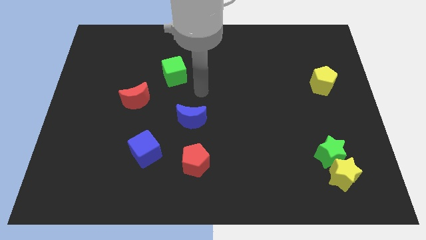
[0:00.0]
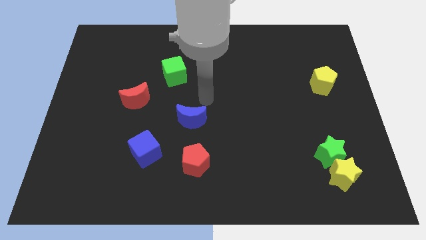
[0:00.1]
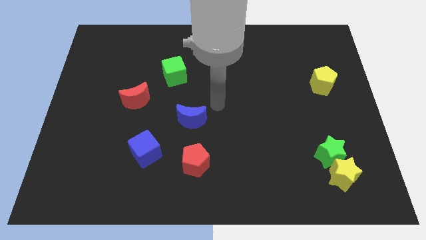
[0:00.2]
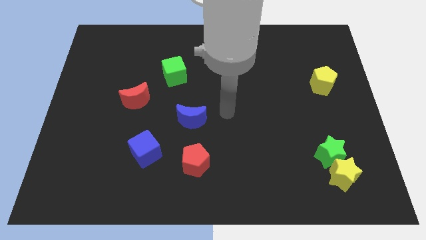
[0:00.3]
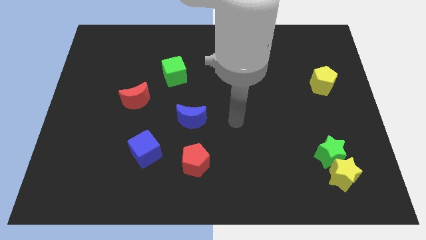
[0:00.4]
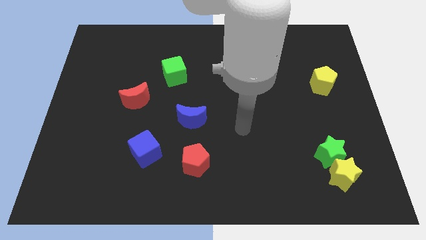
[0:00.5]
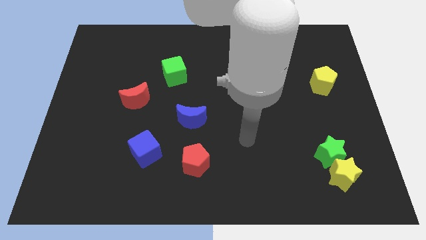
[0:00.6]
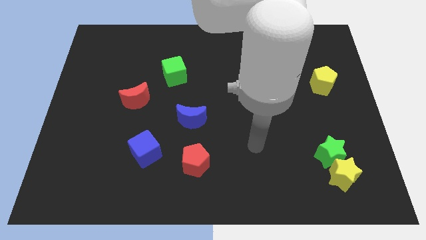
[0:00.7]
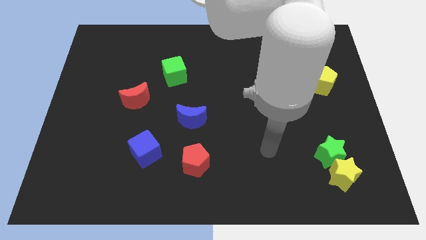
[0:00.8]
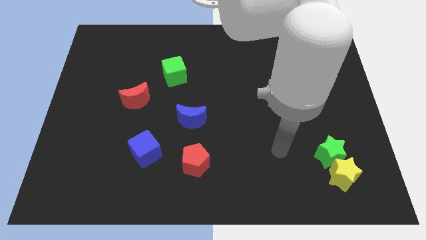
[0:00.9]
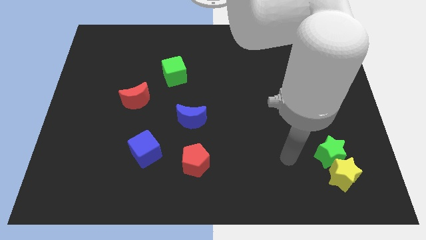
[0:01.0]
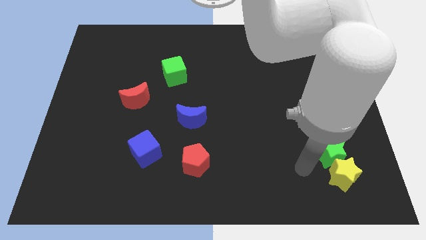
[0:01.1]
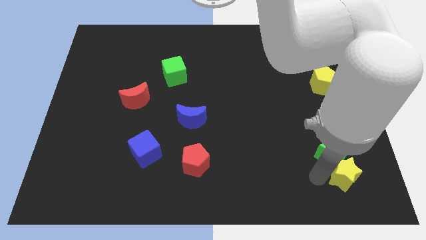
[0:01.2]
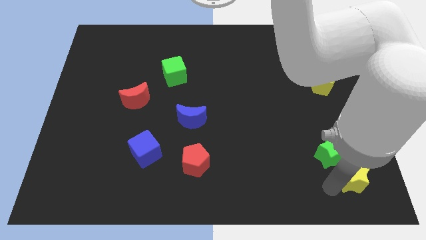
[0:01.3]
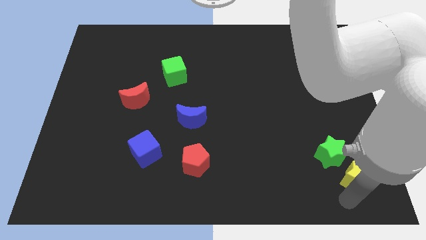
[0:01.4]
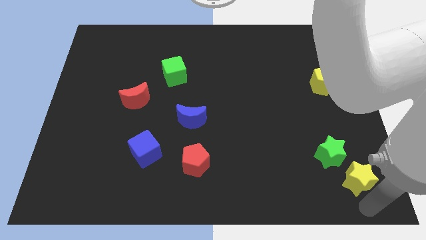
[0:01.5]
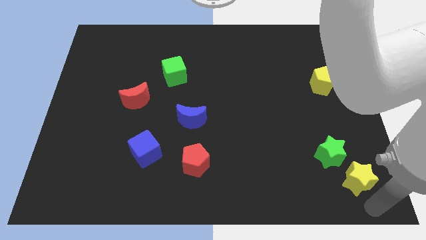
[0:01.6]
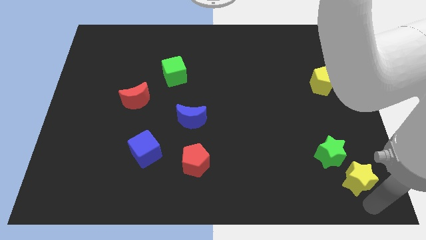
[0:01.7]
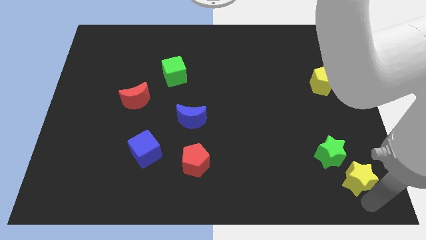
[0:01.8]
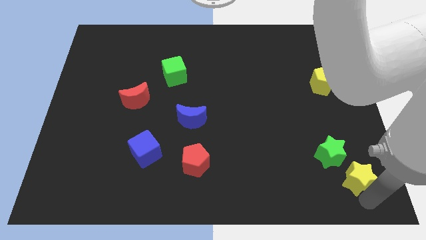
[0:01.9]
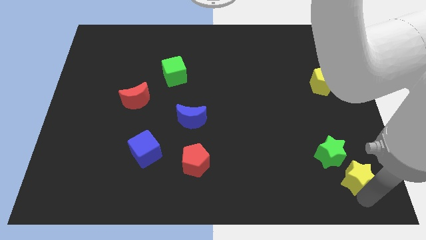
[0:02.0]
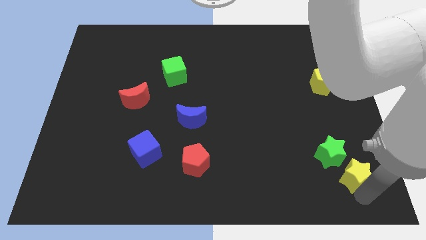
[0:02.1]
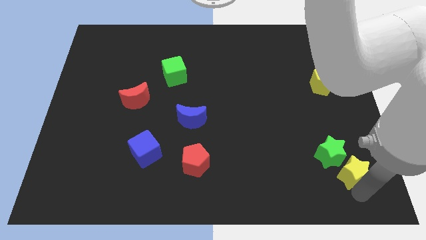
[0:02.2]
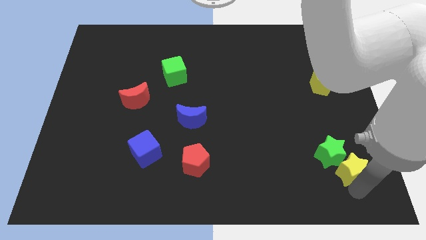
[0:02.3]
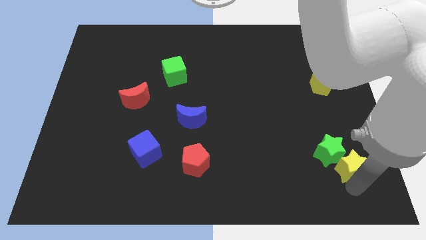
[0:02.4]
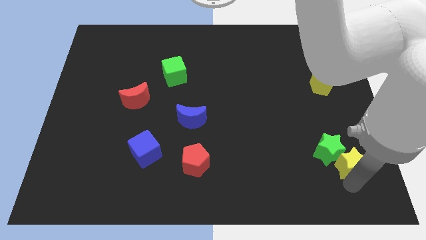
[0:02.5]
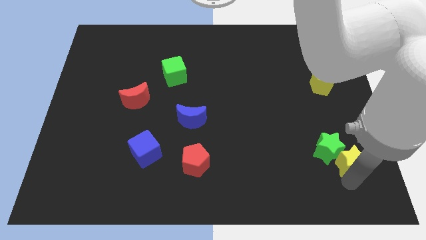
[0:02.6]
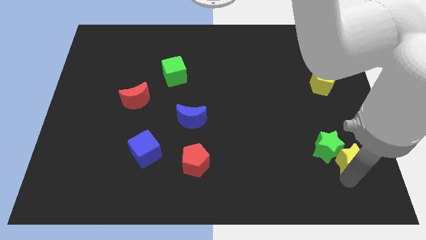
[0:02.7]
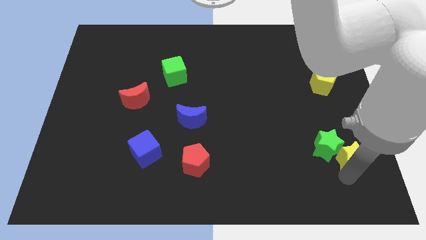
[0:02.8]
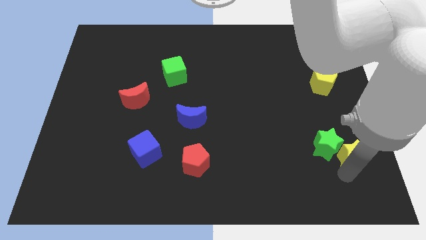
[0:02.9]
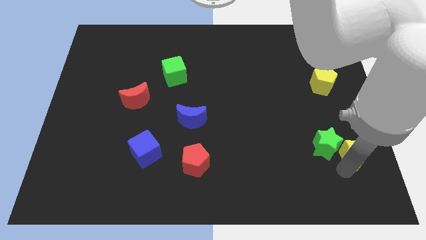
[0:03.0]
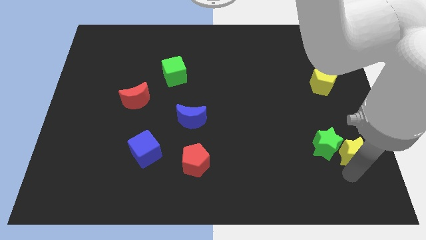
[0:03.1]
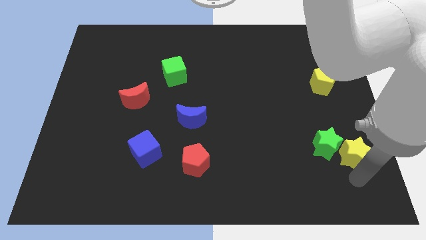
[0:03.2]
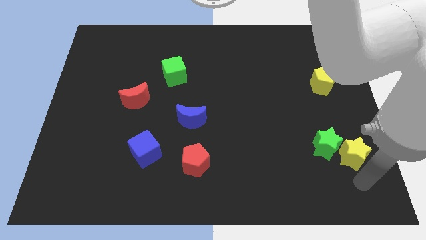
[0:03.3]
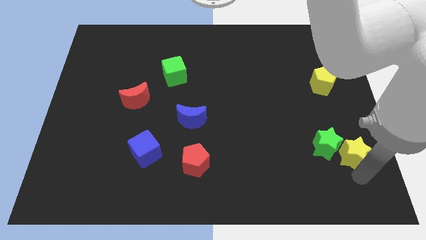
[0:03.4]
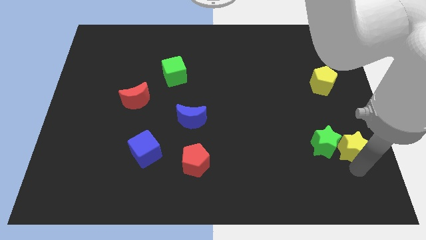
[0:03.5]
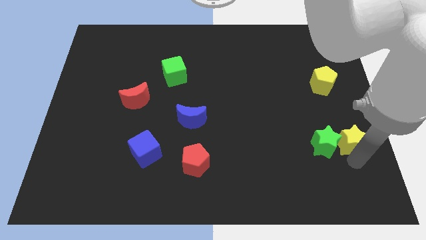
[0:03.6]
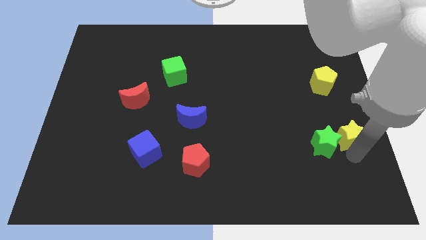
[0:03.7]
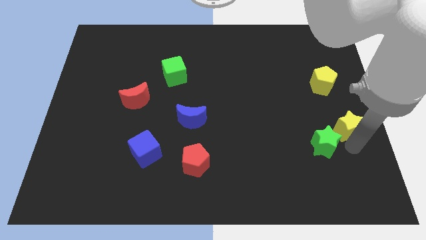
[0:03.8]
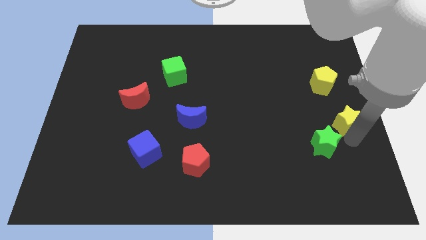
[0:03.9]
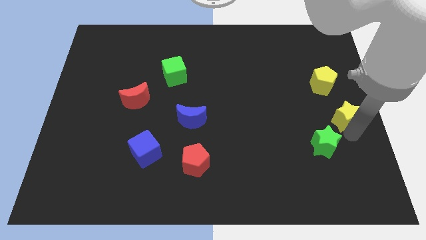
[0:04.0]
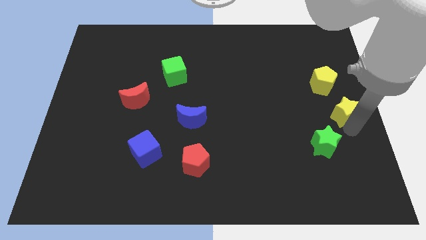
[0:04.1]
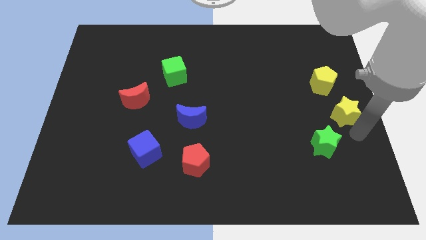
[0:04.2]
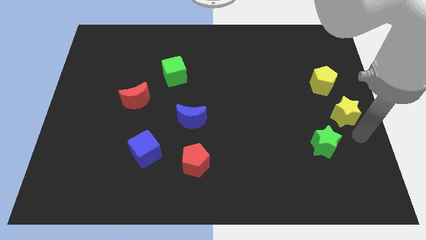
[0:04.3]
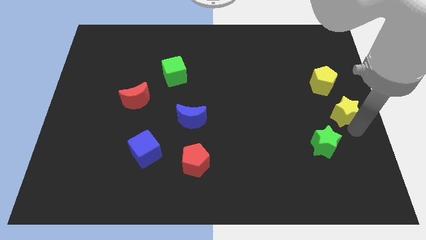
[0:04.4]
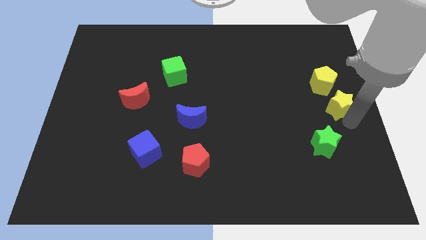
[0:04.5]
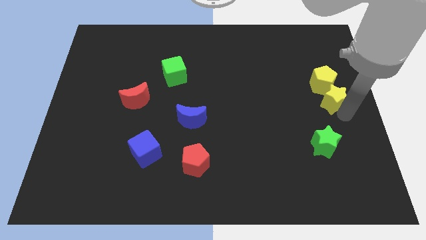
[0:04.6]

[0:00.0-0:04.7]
slide the yellow star to the yellow pentagon

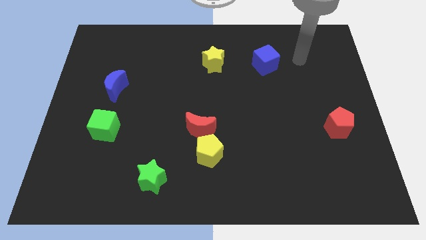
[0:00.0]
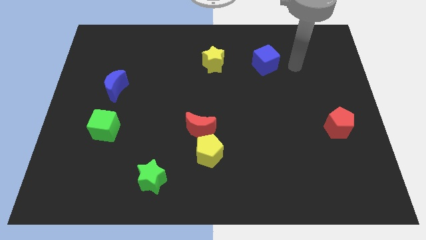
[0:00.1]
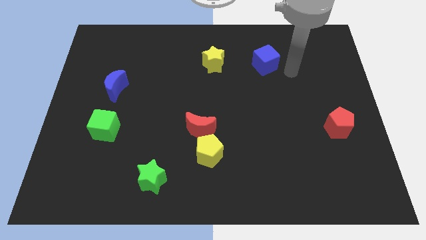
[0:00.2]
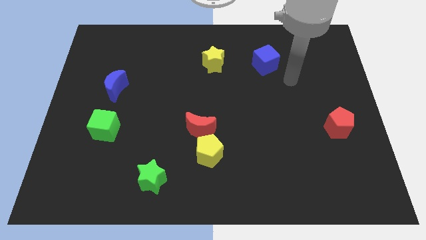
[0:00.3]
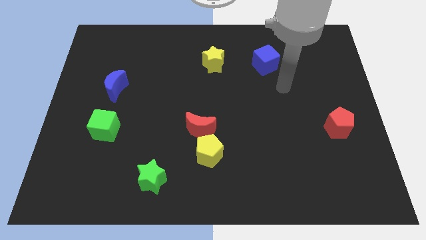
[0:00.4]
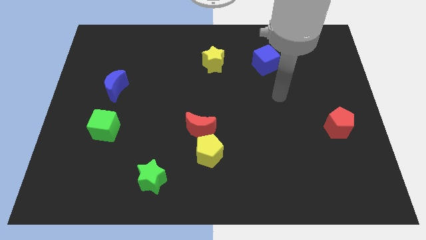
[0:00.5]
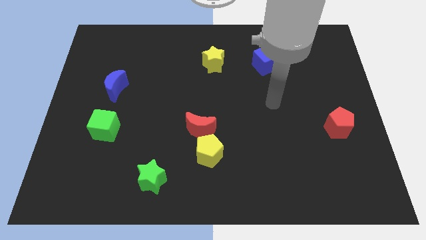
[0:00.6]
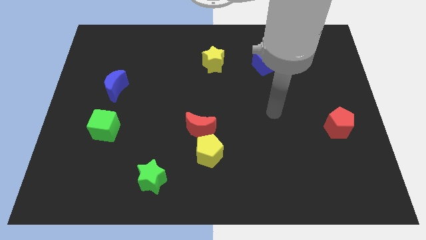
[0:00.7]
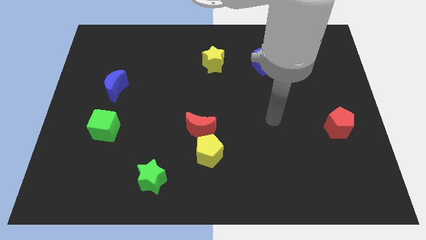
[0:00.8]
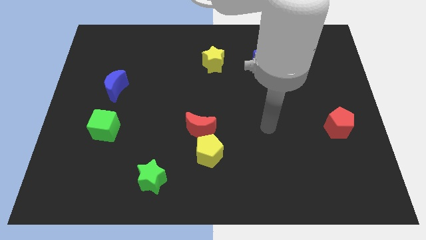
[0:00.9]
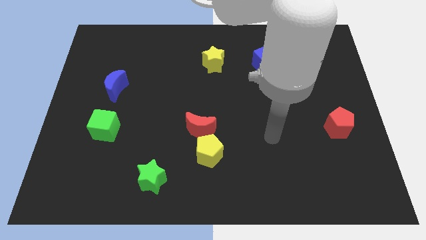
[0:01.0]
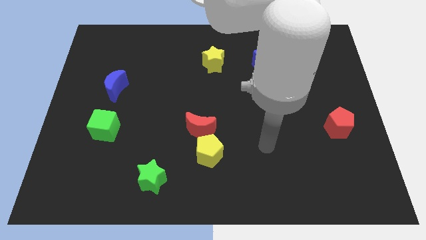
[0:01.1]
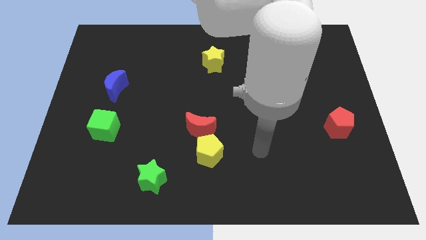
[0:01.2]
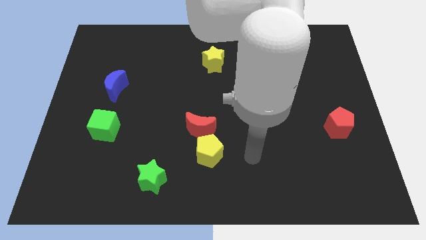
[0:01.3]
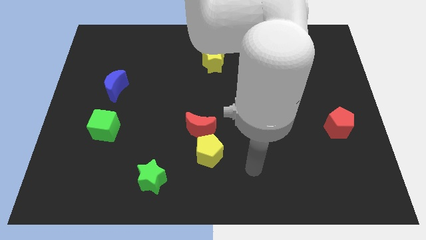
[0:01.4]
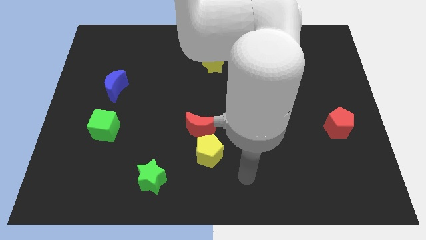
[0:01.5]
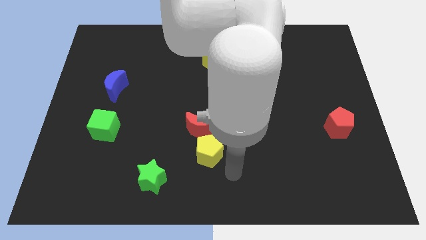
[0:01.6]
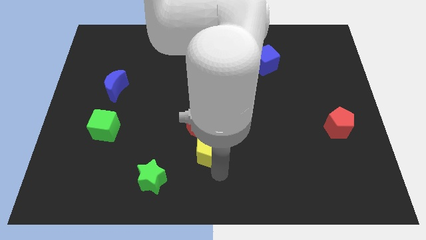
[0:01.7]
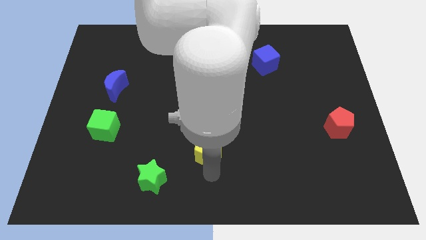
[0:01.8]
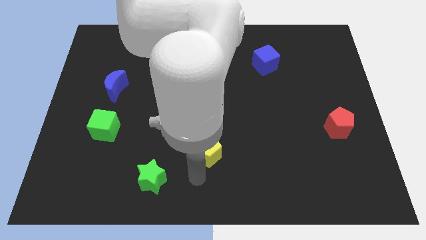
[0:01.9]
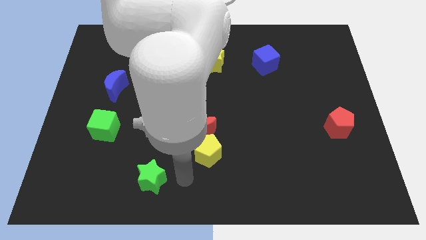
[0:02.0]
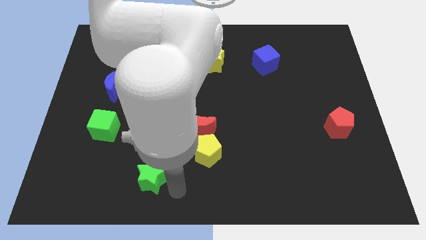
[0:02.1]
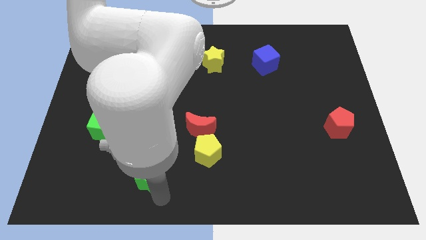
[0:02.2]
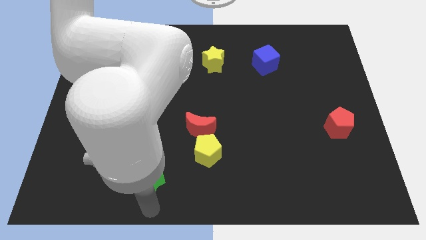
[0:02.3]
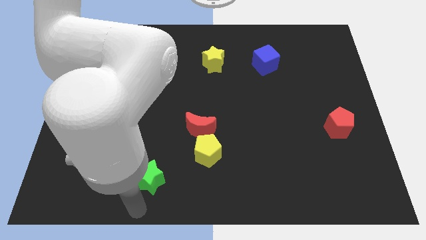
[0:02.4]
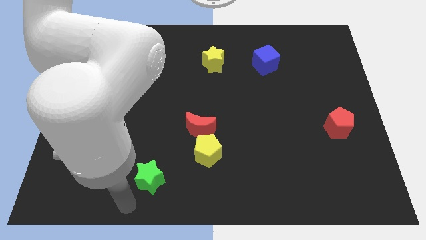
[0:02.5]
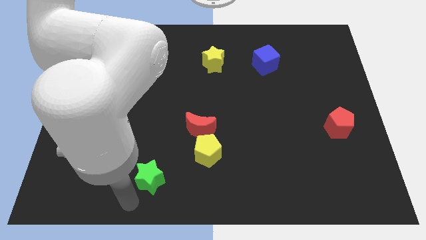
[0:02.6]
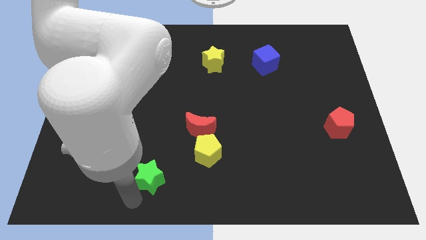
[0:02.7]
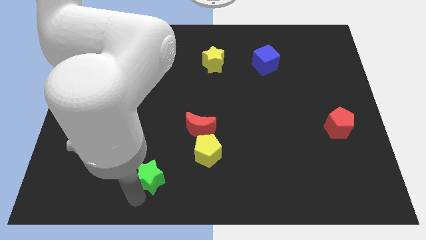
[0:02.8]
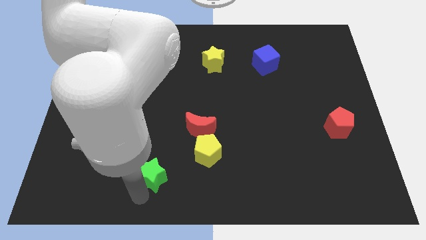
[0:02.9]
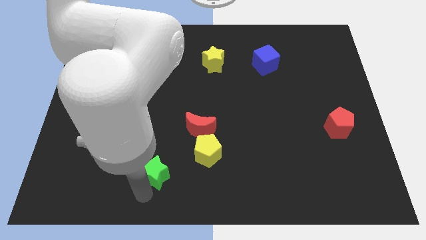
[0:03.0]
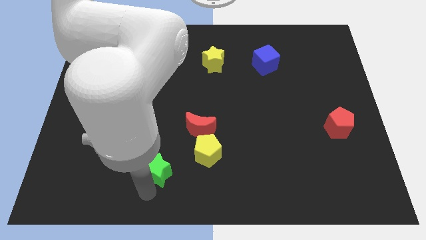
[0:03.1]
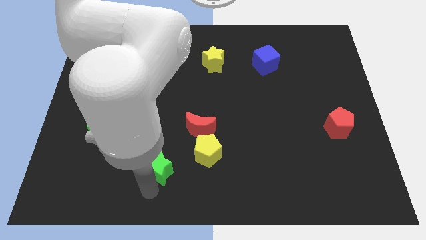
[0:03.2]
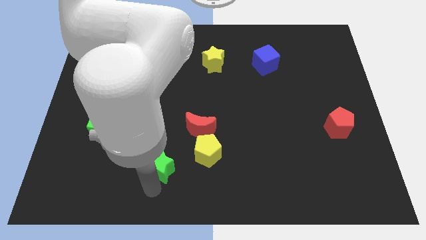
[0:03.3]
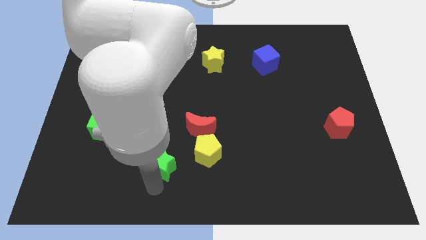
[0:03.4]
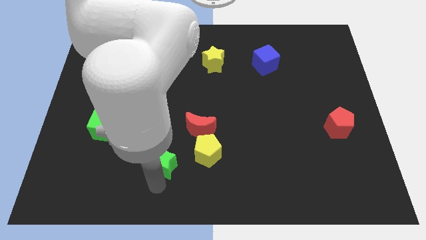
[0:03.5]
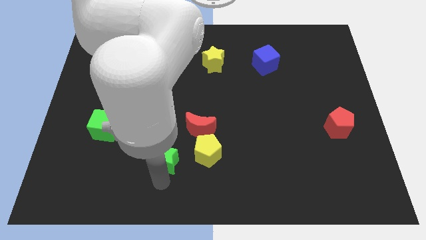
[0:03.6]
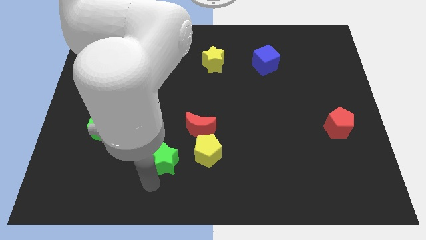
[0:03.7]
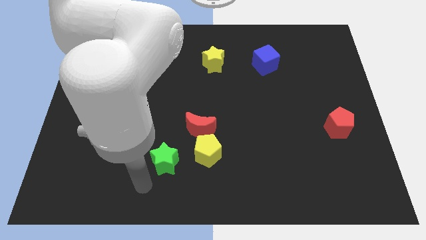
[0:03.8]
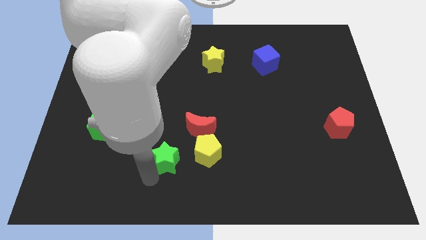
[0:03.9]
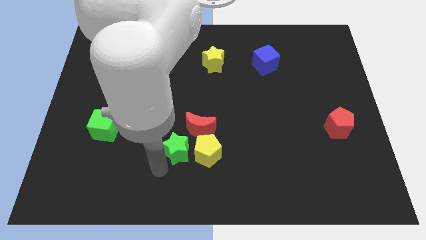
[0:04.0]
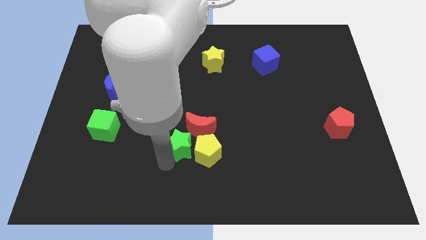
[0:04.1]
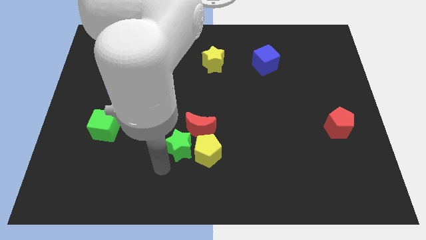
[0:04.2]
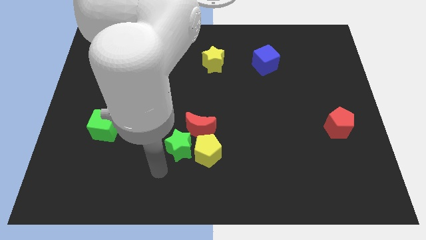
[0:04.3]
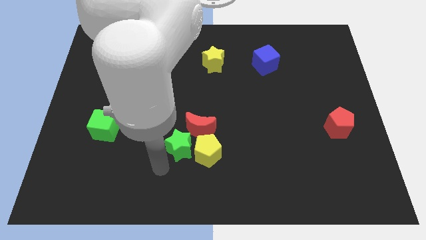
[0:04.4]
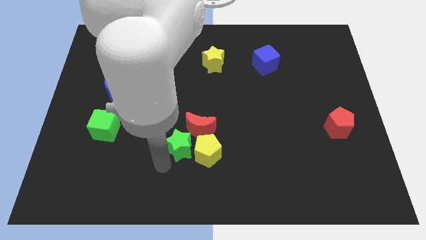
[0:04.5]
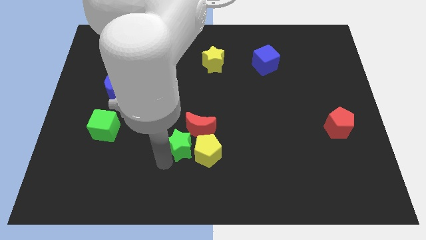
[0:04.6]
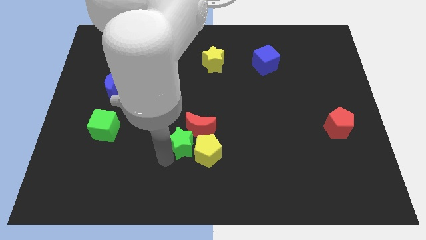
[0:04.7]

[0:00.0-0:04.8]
move the green star to the red moon
